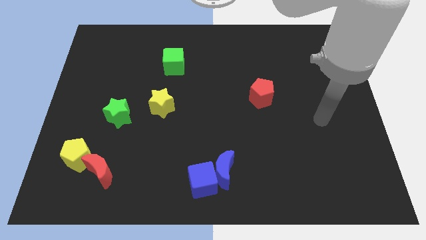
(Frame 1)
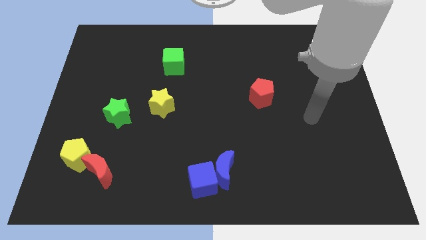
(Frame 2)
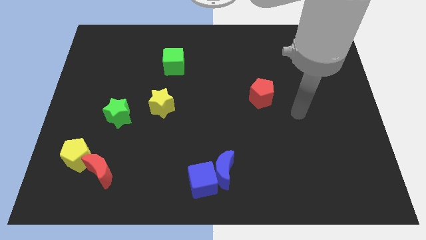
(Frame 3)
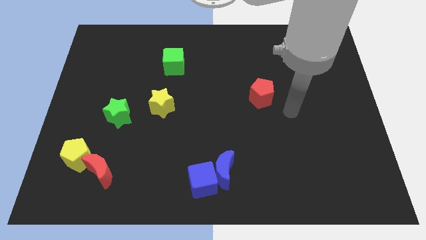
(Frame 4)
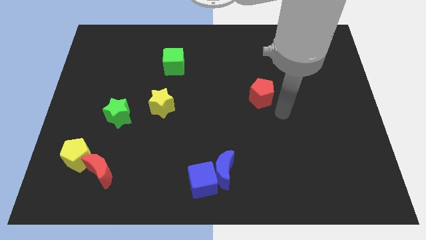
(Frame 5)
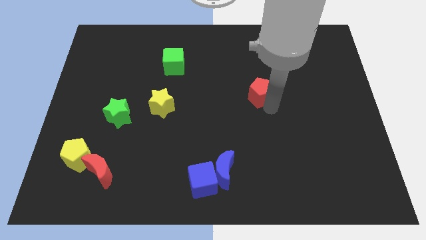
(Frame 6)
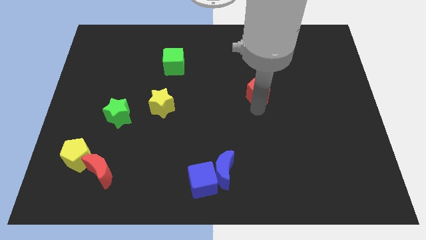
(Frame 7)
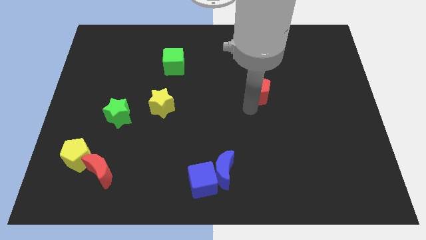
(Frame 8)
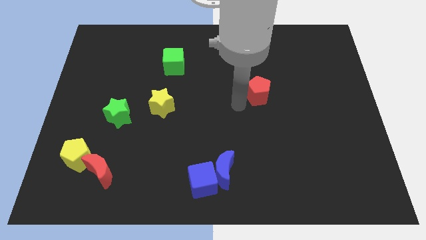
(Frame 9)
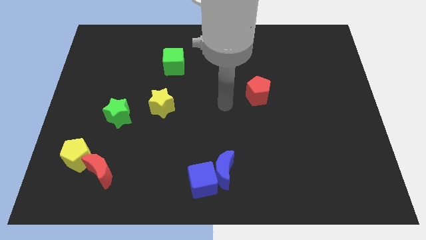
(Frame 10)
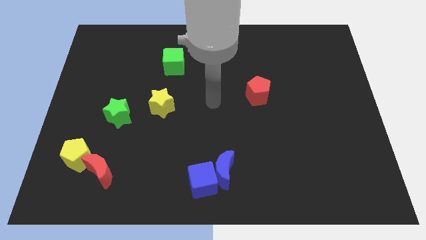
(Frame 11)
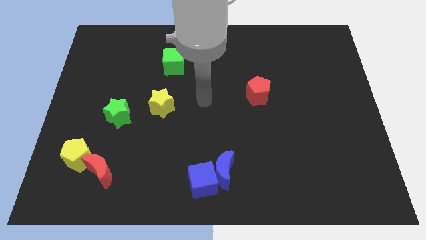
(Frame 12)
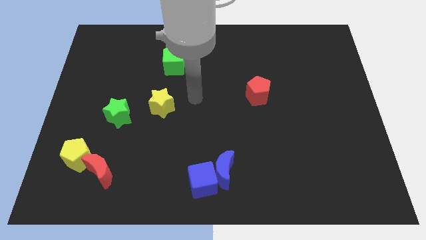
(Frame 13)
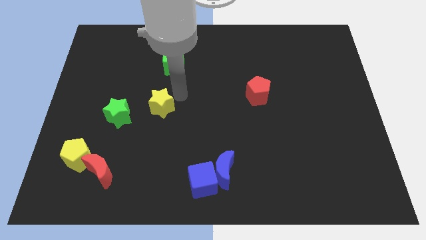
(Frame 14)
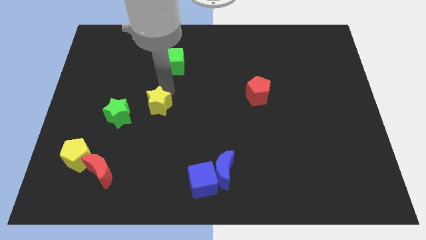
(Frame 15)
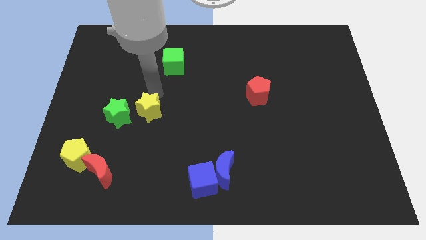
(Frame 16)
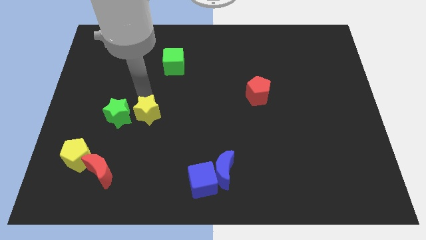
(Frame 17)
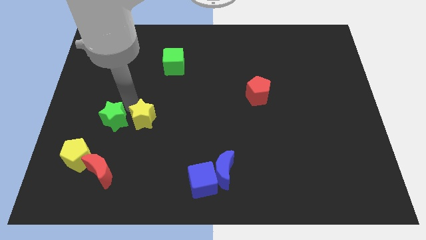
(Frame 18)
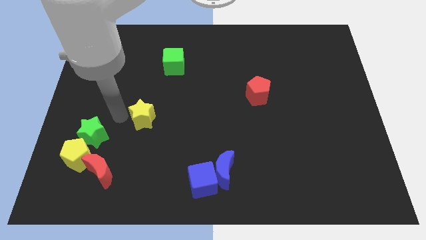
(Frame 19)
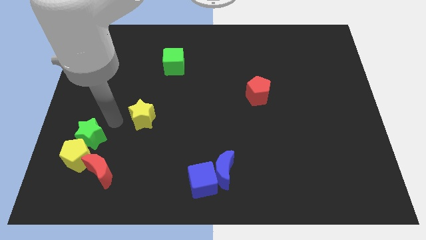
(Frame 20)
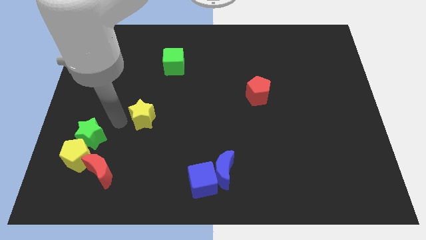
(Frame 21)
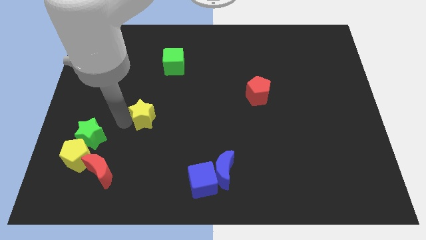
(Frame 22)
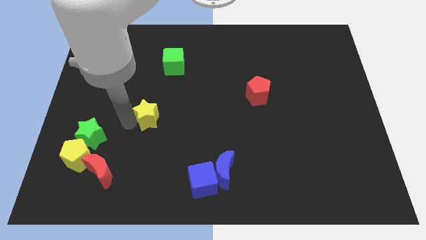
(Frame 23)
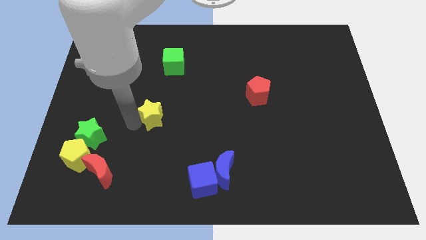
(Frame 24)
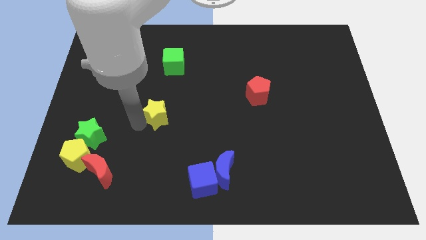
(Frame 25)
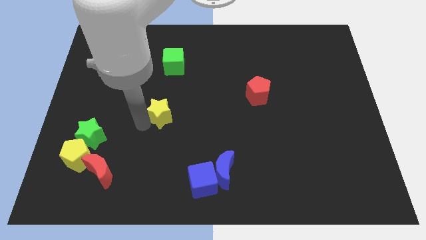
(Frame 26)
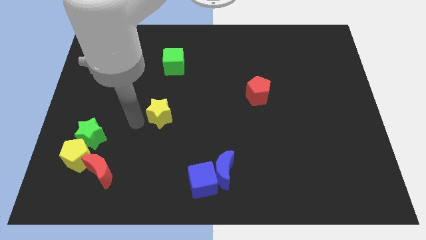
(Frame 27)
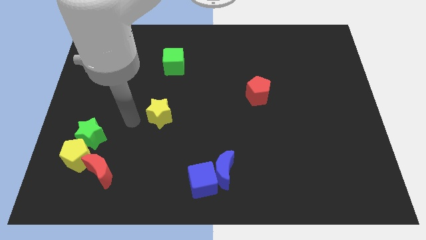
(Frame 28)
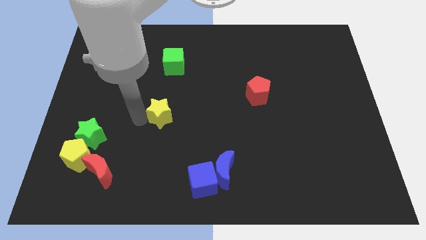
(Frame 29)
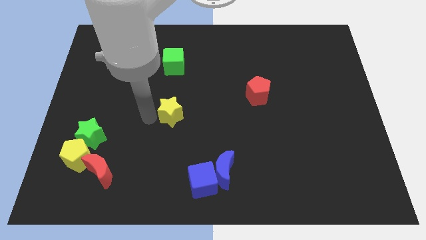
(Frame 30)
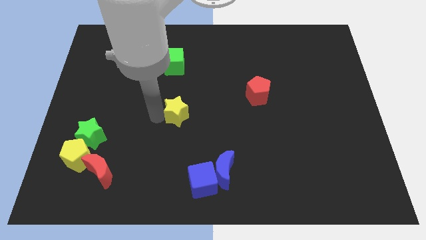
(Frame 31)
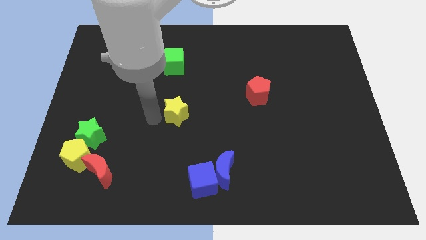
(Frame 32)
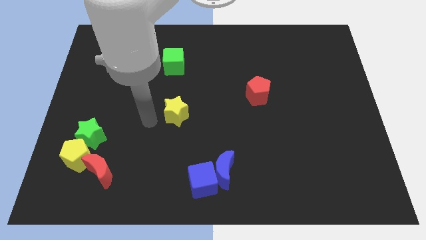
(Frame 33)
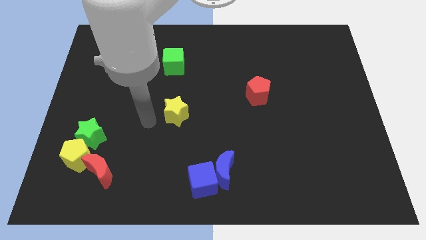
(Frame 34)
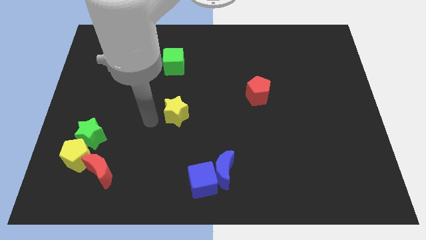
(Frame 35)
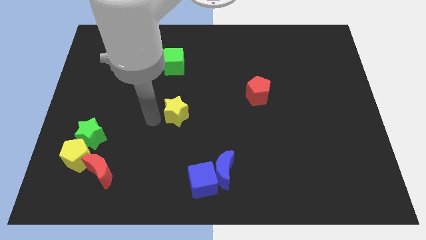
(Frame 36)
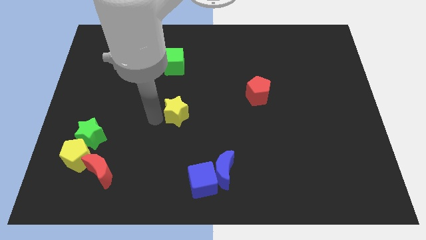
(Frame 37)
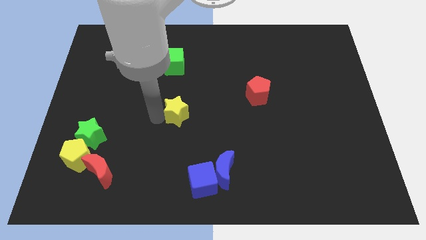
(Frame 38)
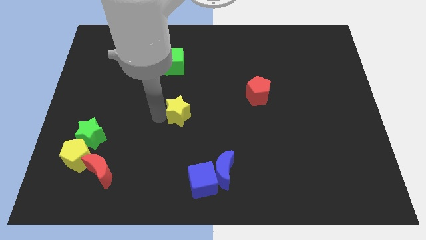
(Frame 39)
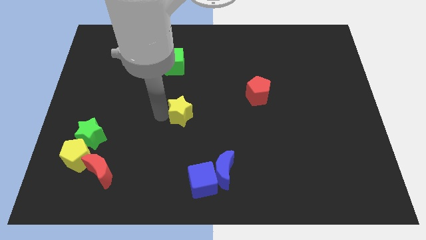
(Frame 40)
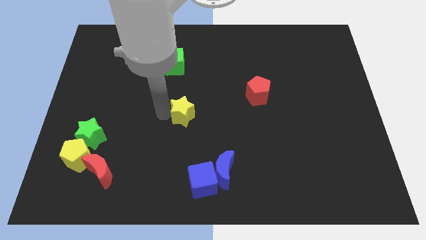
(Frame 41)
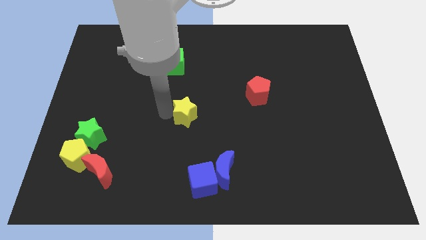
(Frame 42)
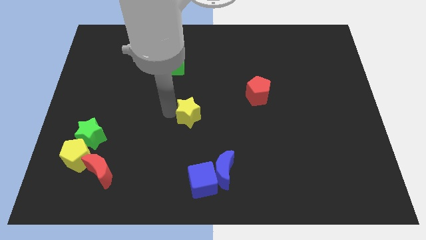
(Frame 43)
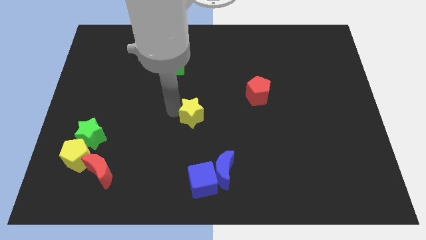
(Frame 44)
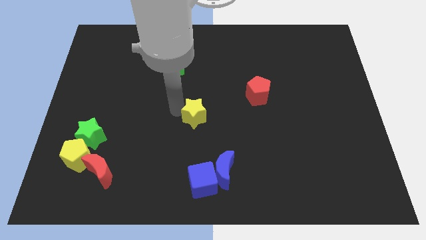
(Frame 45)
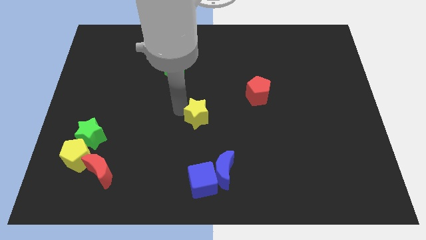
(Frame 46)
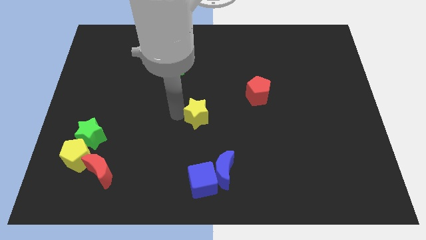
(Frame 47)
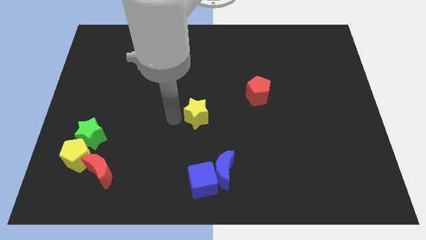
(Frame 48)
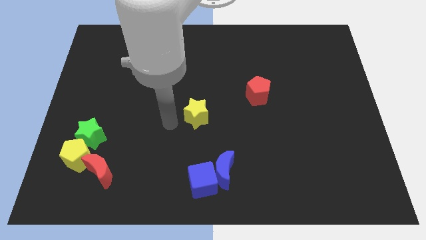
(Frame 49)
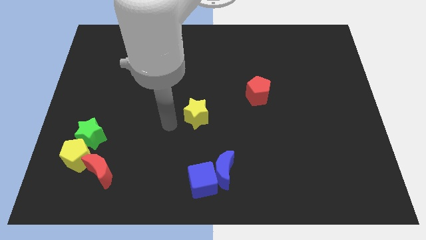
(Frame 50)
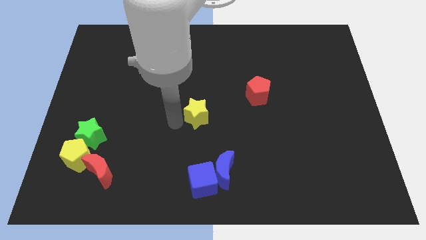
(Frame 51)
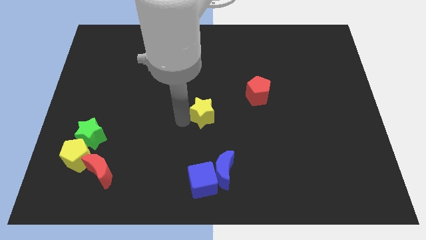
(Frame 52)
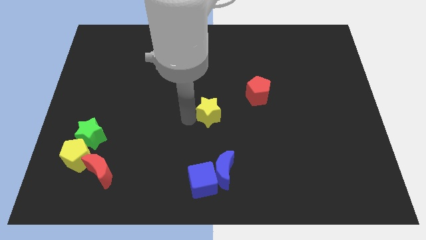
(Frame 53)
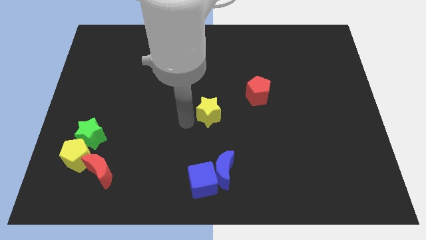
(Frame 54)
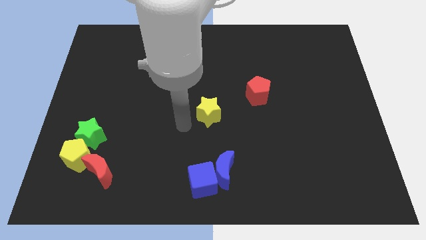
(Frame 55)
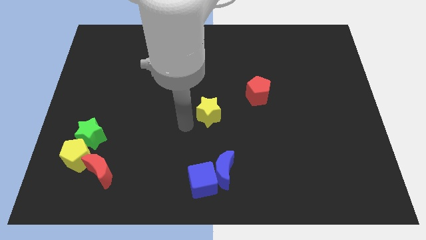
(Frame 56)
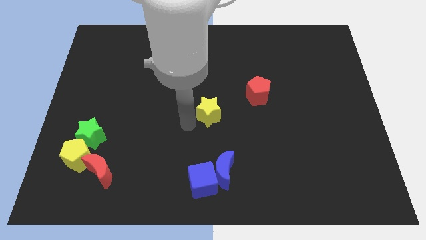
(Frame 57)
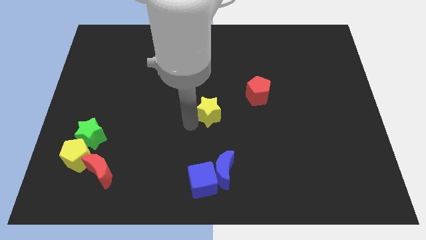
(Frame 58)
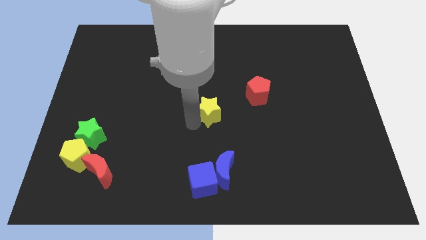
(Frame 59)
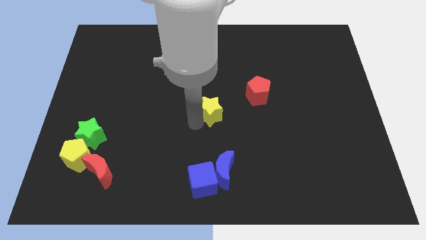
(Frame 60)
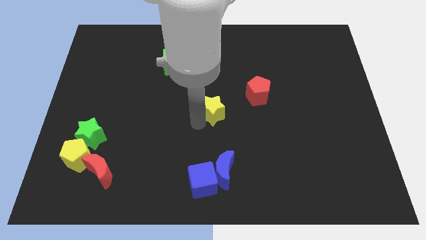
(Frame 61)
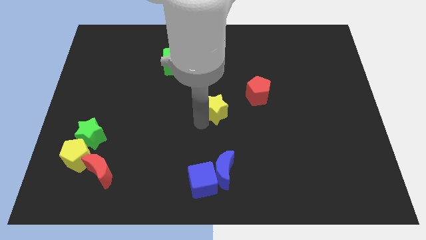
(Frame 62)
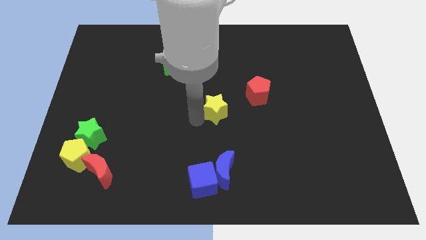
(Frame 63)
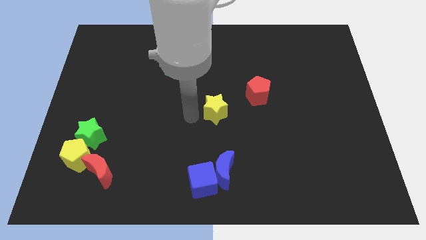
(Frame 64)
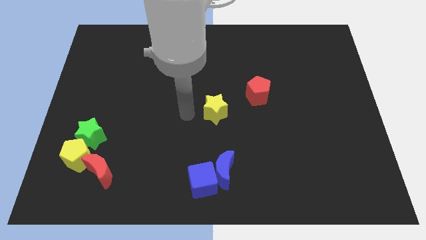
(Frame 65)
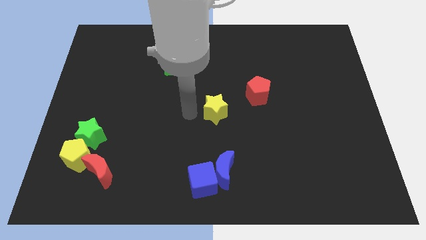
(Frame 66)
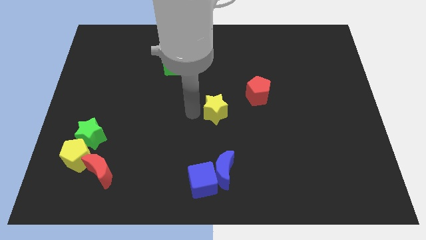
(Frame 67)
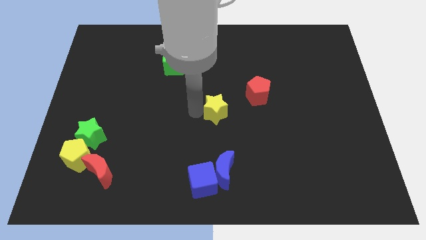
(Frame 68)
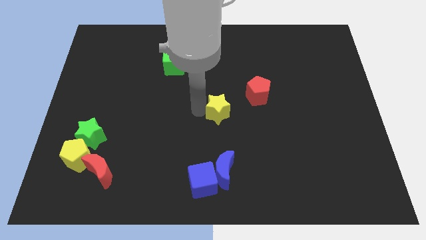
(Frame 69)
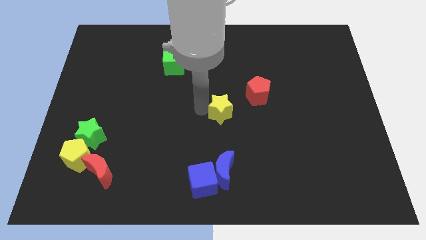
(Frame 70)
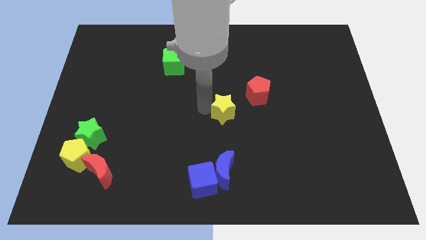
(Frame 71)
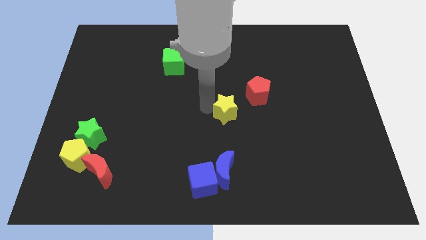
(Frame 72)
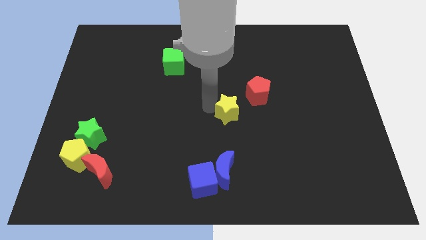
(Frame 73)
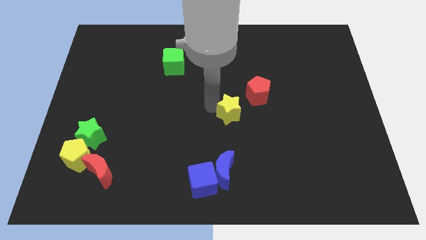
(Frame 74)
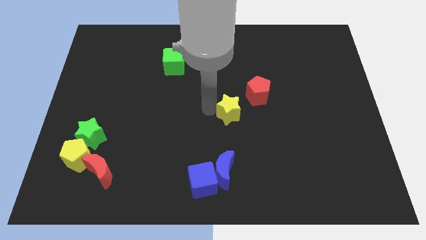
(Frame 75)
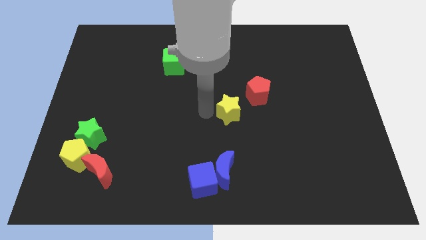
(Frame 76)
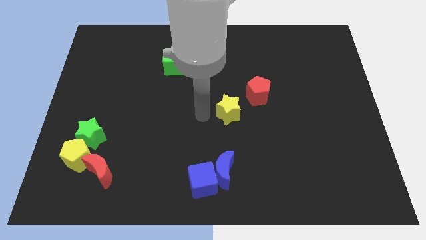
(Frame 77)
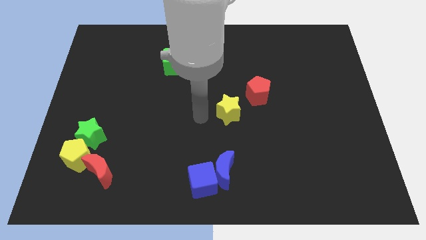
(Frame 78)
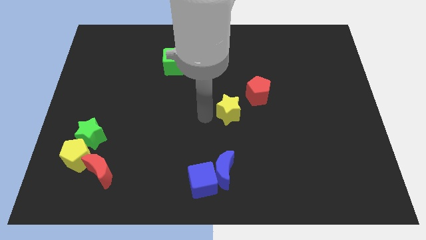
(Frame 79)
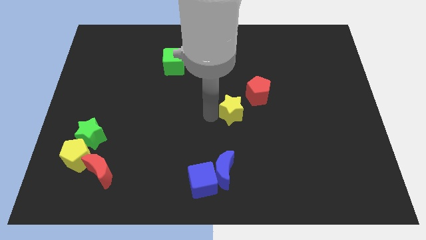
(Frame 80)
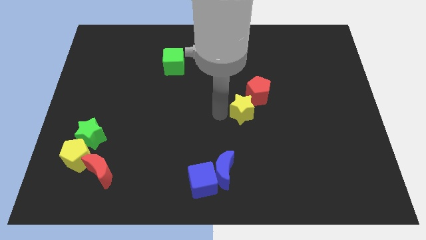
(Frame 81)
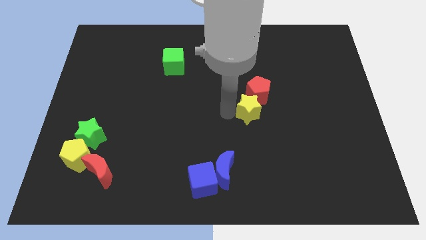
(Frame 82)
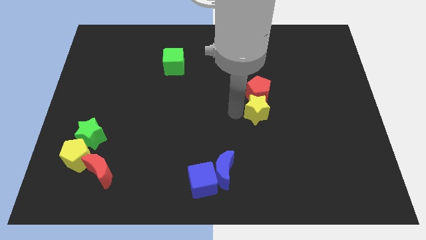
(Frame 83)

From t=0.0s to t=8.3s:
put the yellow star to the bottom right side of the red pentagon
